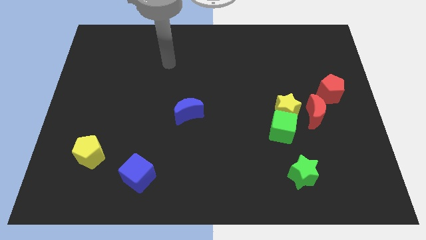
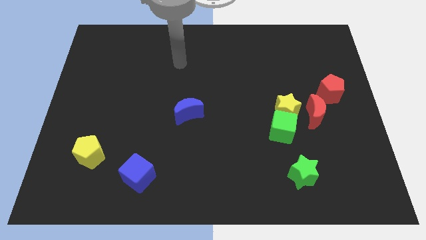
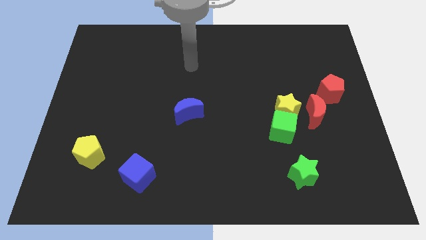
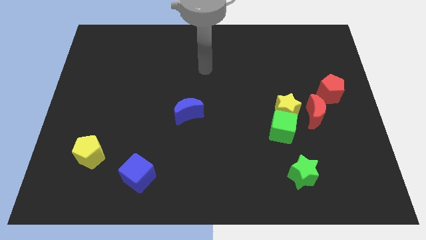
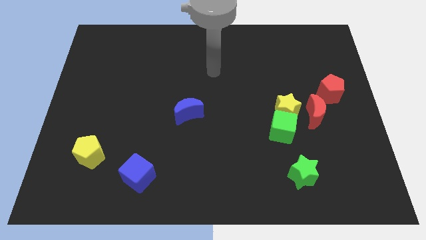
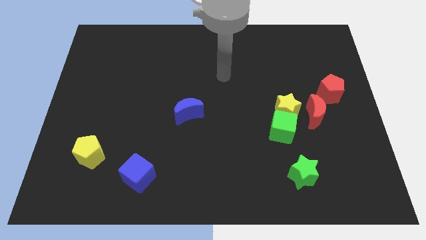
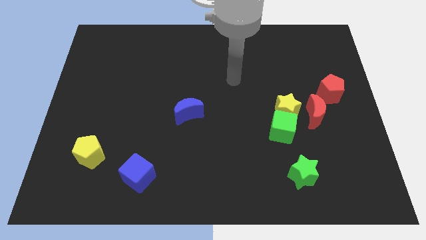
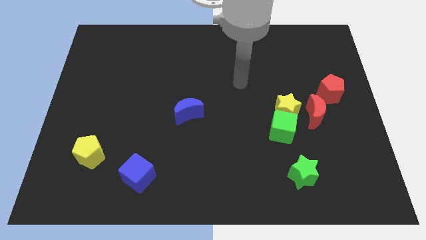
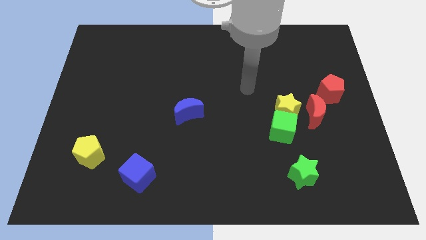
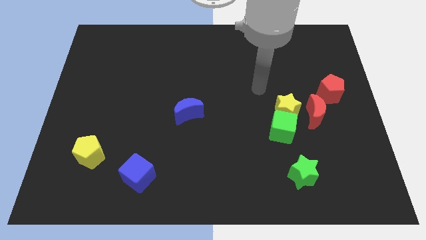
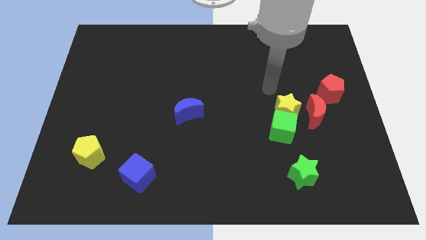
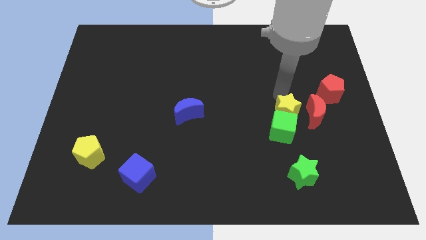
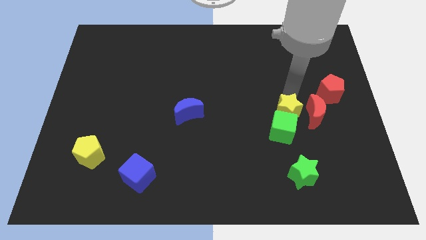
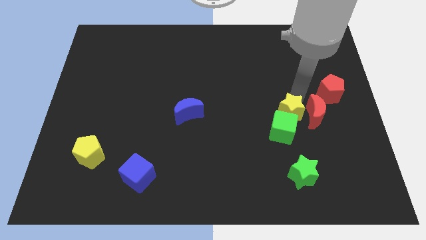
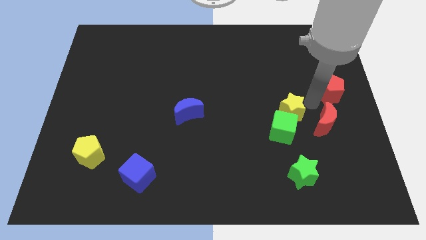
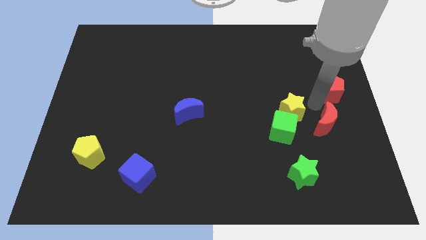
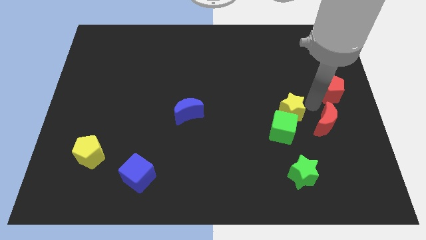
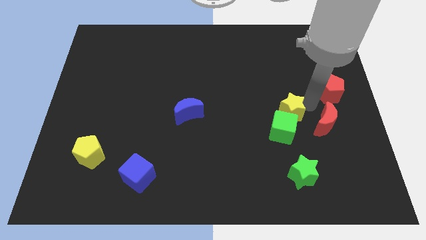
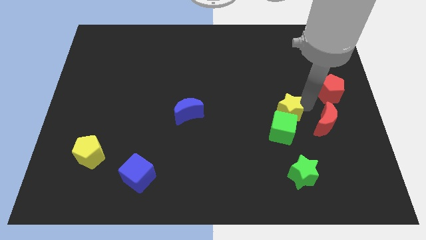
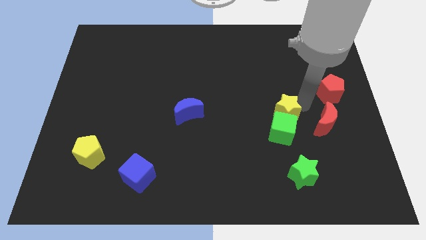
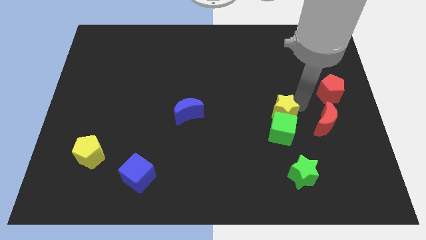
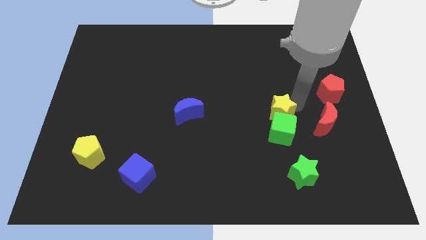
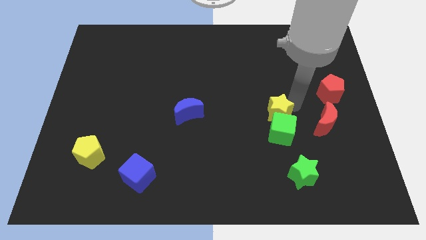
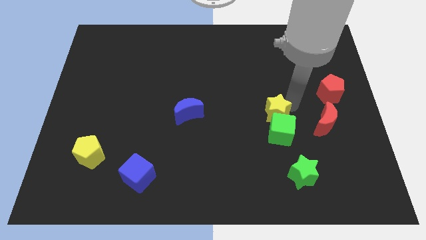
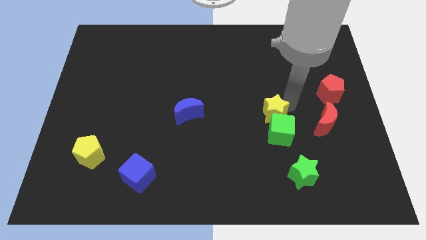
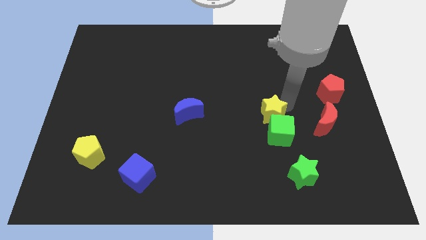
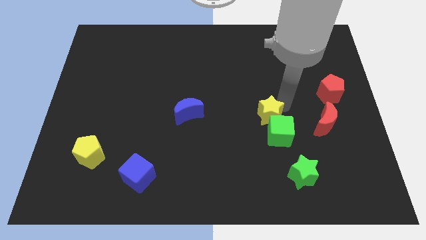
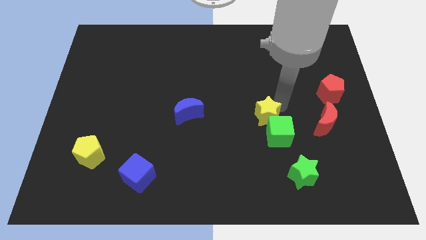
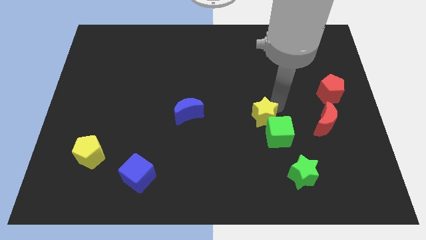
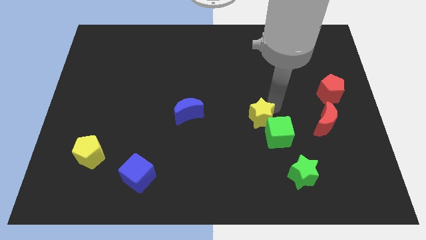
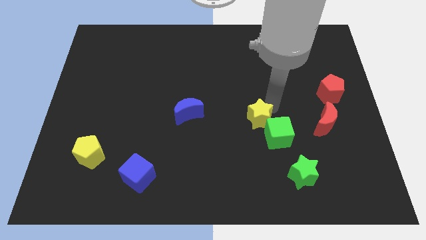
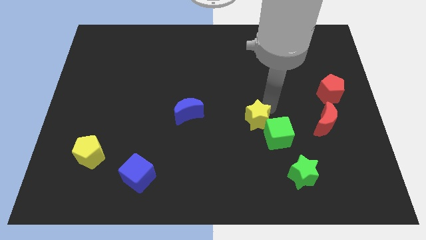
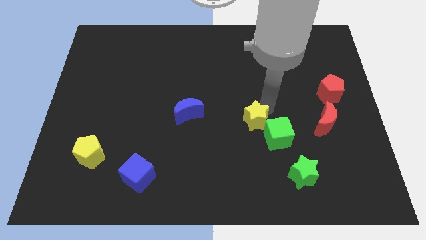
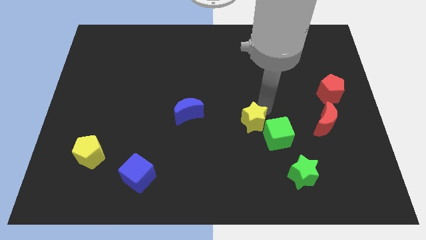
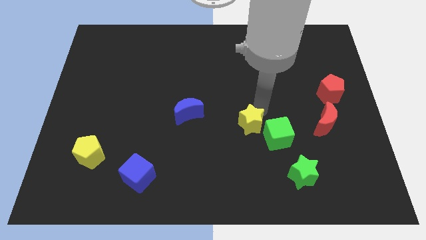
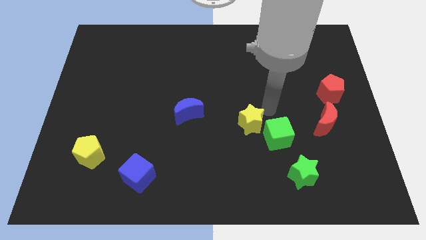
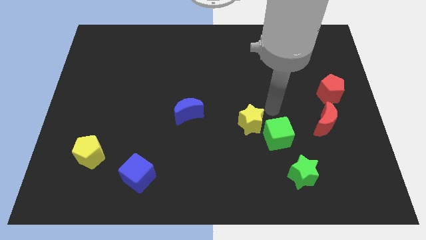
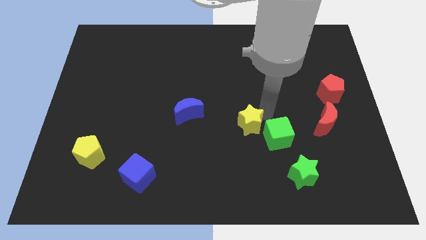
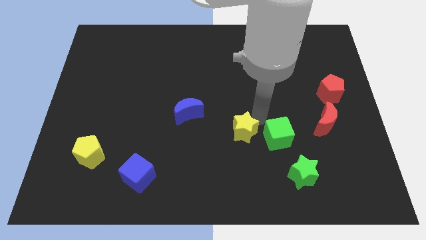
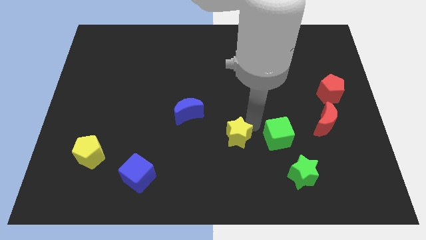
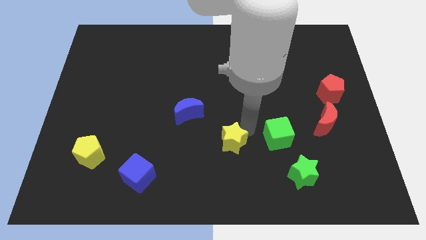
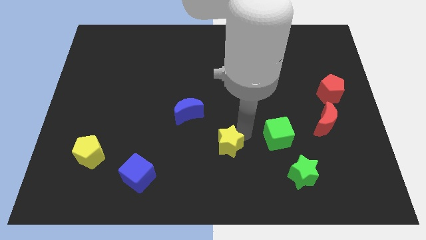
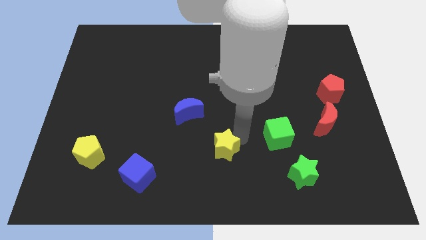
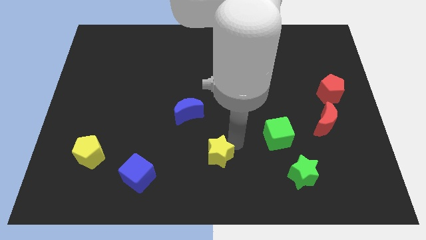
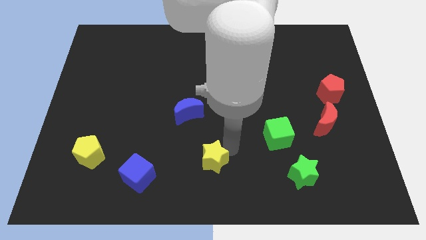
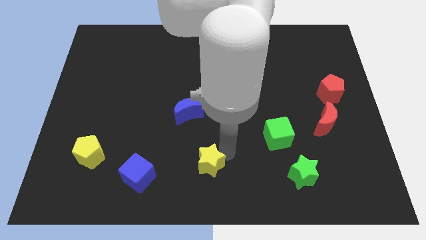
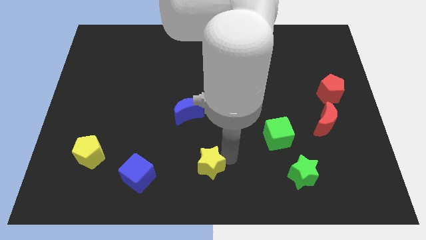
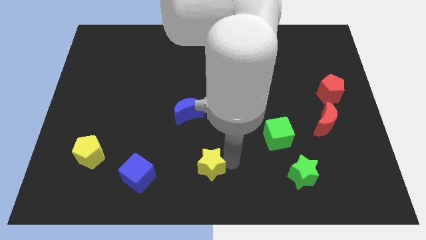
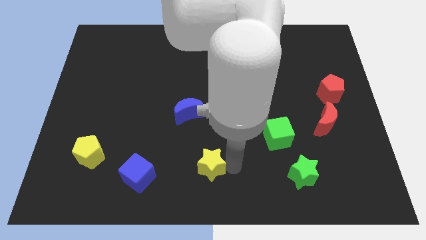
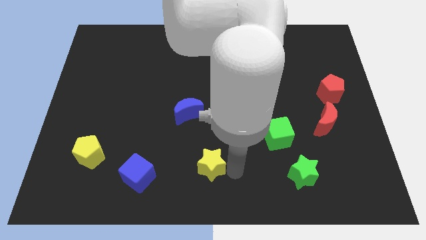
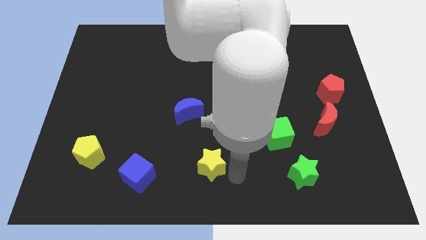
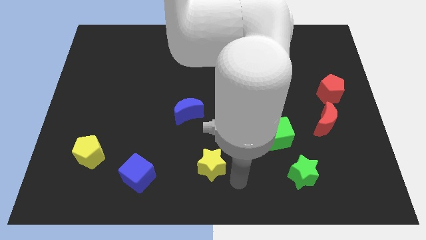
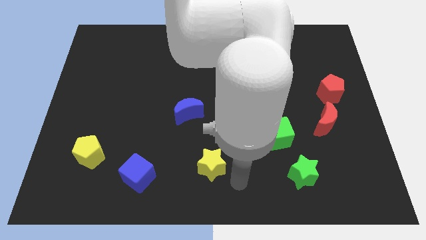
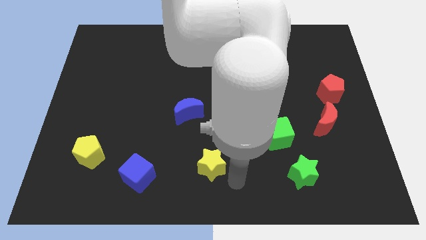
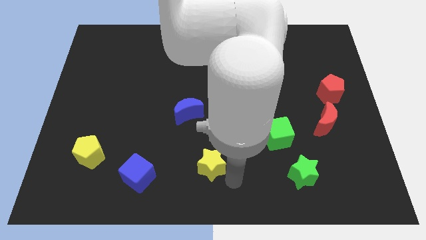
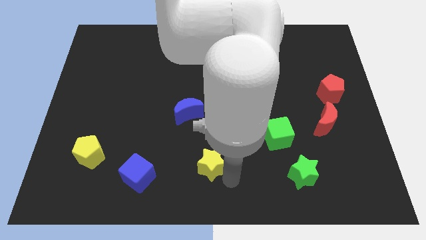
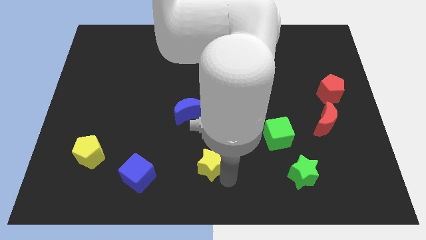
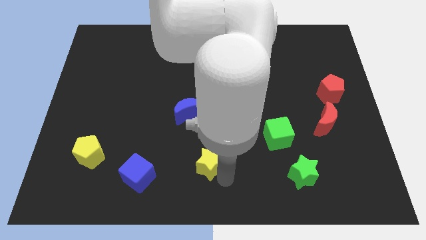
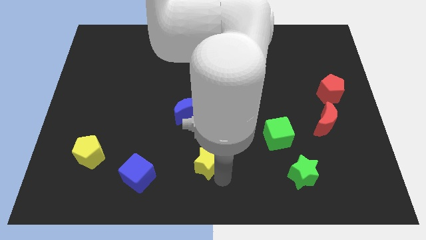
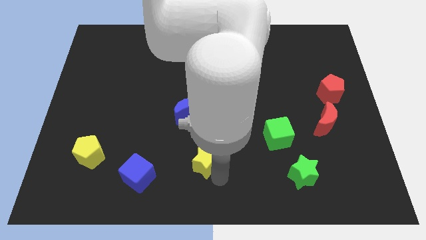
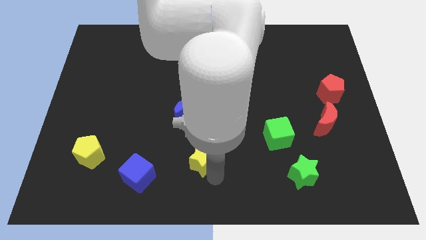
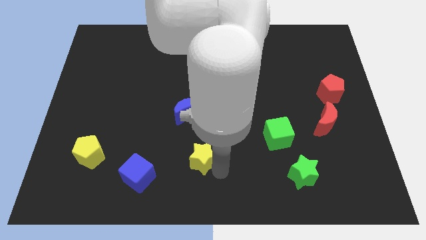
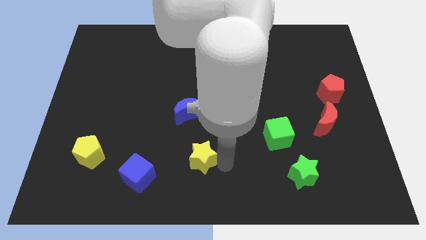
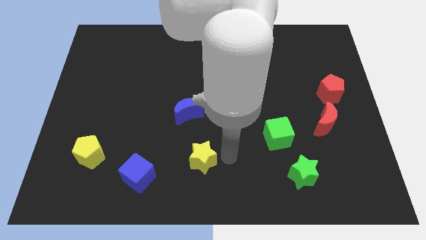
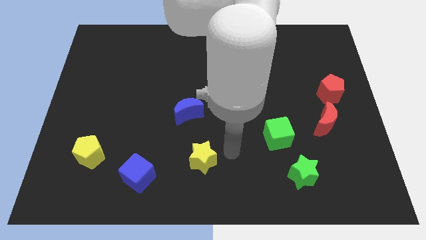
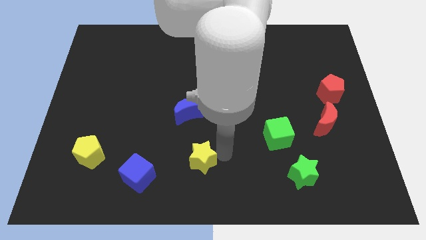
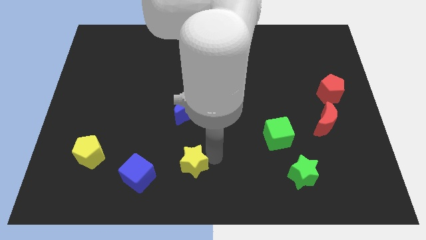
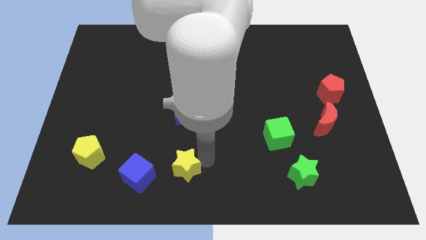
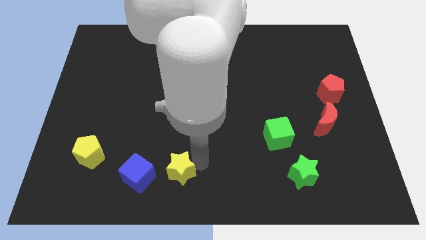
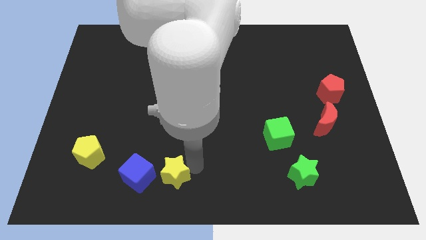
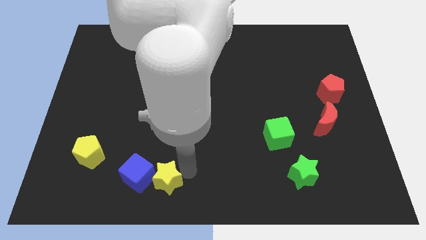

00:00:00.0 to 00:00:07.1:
push the yellow star to the blue cube
